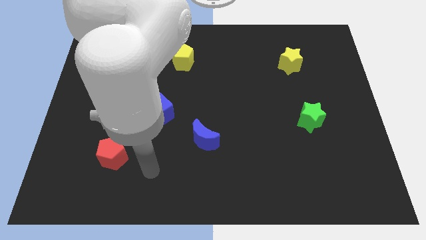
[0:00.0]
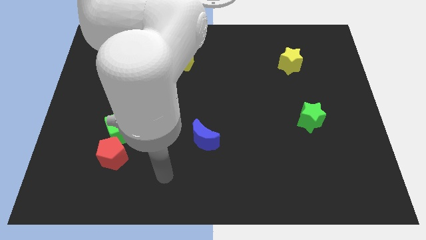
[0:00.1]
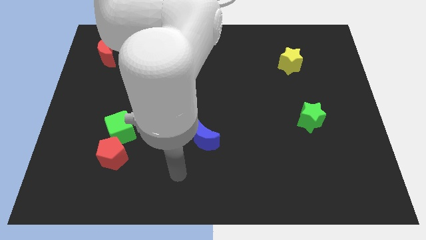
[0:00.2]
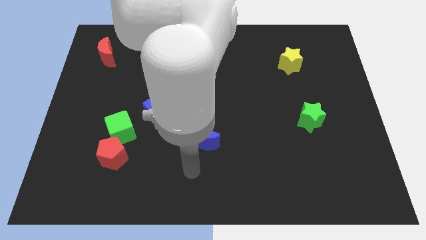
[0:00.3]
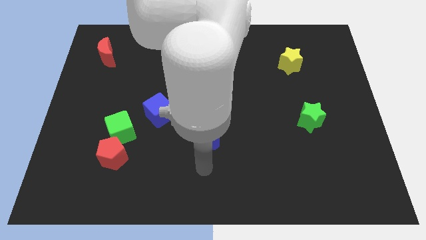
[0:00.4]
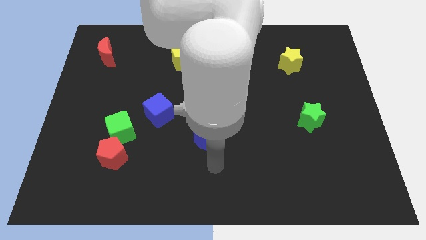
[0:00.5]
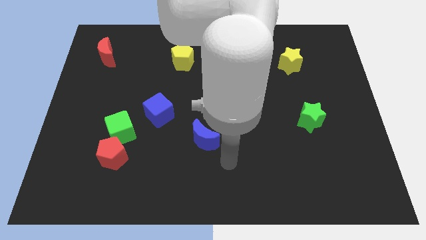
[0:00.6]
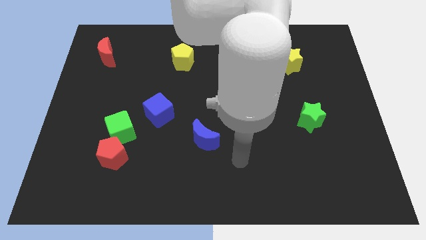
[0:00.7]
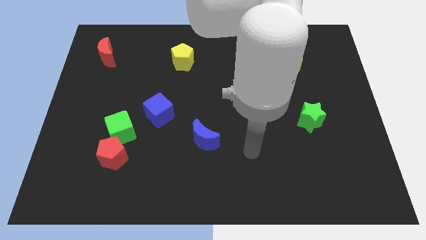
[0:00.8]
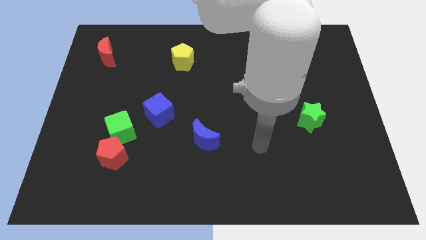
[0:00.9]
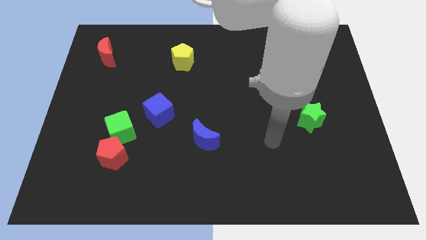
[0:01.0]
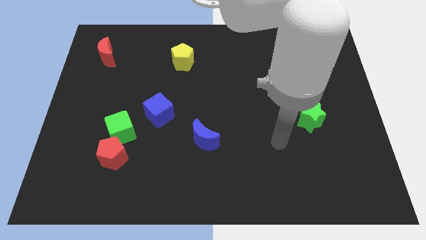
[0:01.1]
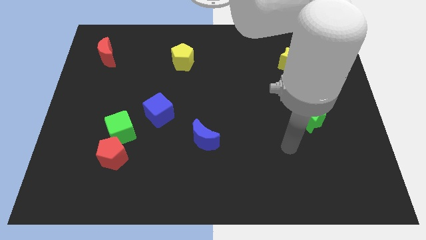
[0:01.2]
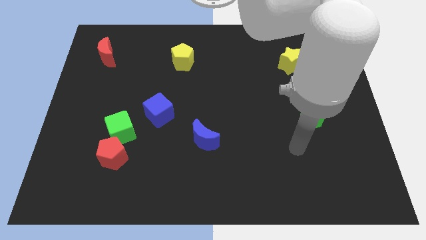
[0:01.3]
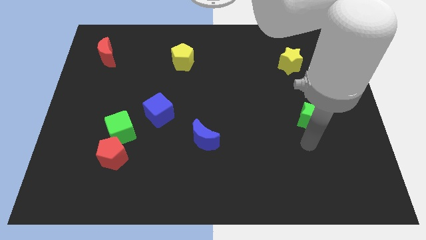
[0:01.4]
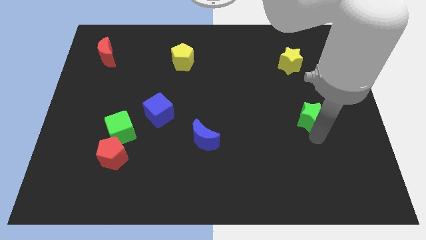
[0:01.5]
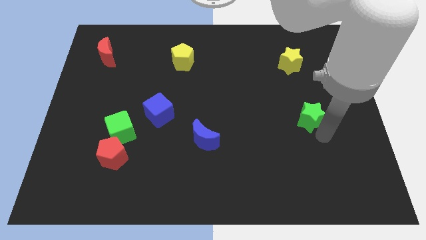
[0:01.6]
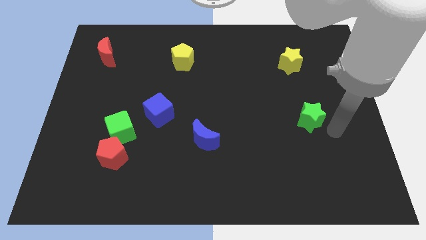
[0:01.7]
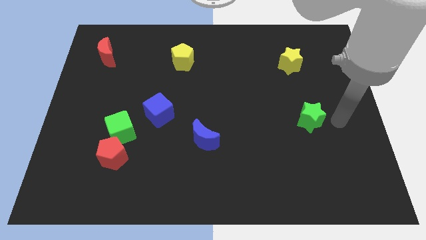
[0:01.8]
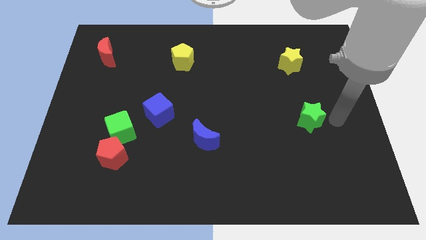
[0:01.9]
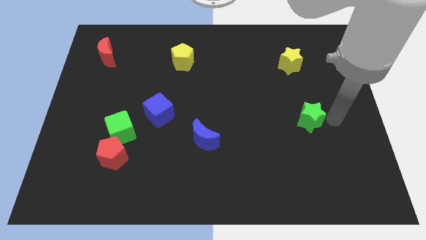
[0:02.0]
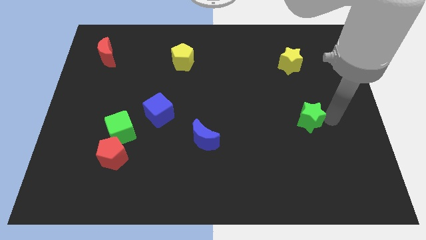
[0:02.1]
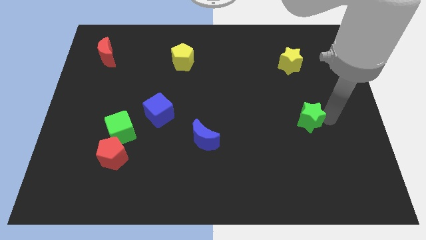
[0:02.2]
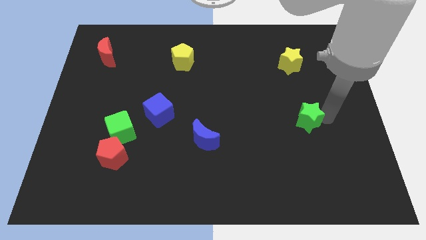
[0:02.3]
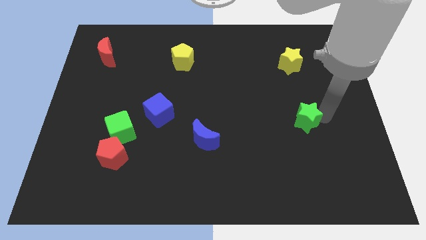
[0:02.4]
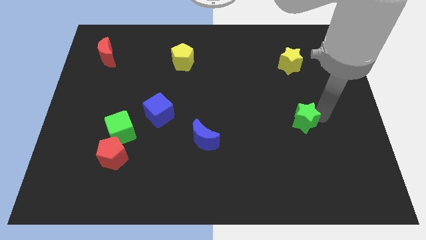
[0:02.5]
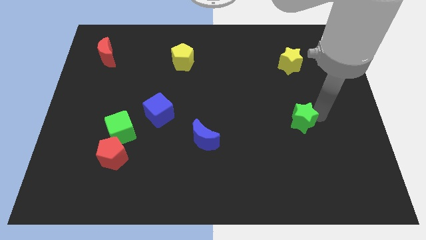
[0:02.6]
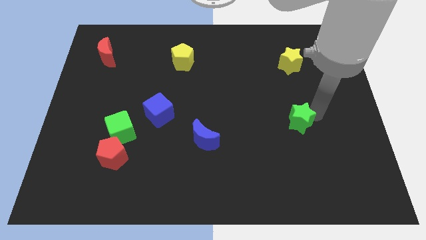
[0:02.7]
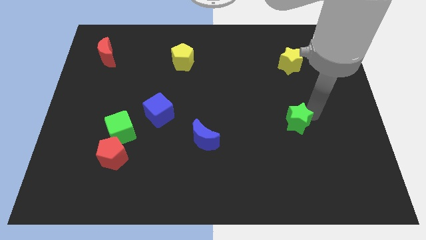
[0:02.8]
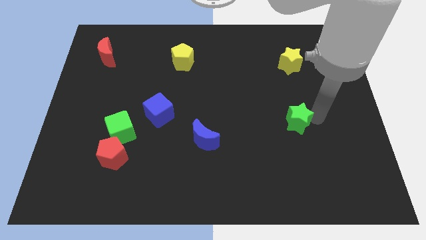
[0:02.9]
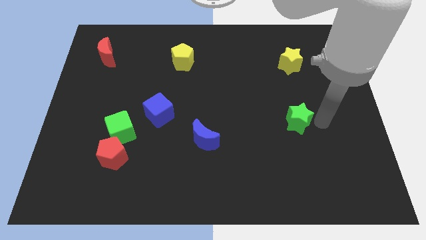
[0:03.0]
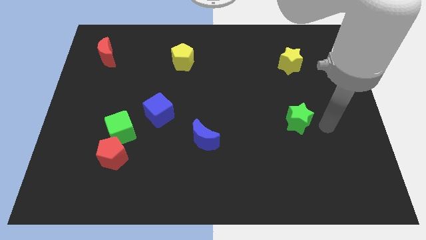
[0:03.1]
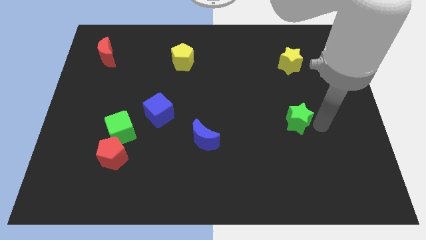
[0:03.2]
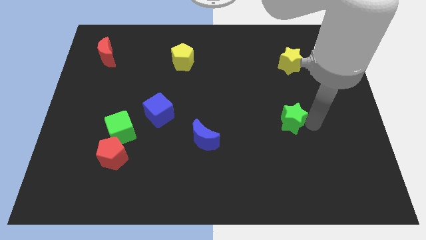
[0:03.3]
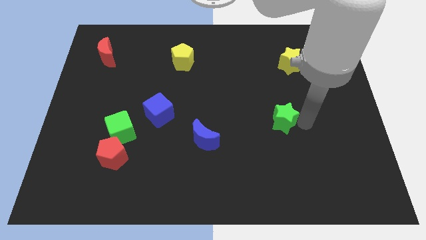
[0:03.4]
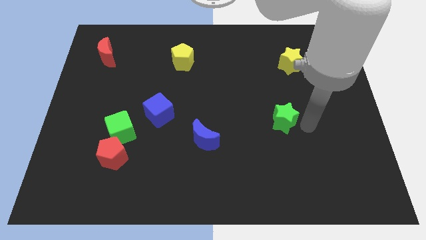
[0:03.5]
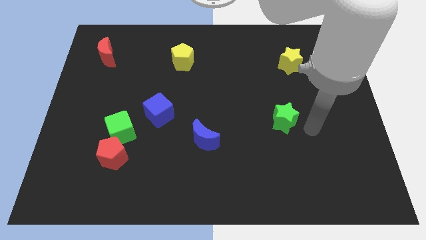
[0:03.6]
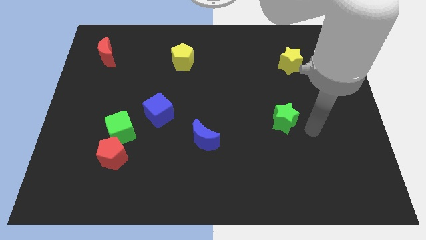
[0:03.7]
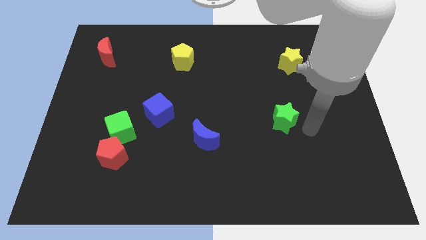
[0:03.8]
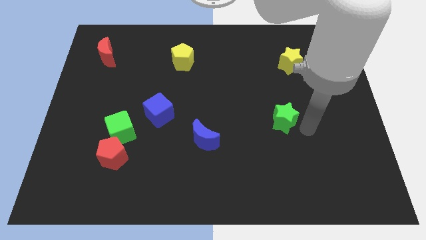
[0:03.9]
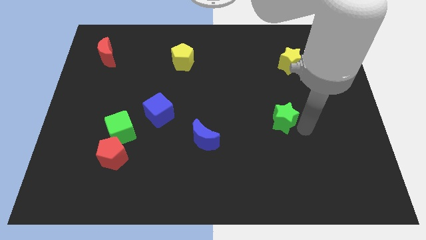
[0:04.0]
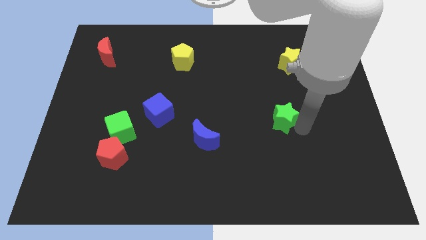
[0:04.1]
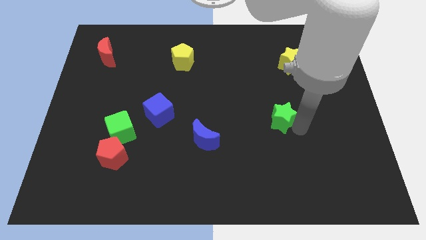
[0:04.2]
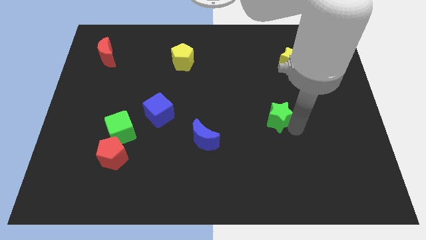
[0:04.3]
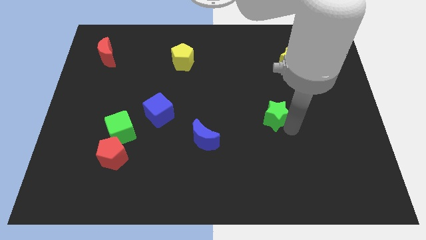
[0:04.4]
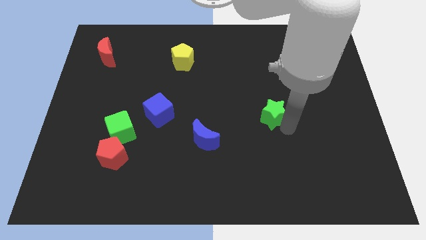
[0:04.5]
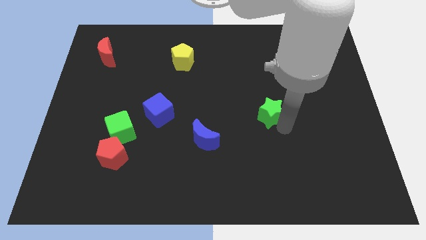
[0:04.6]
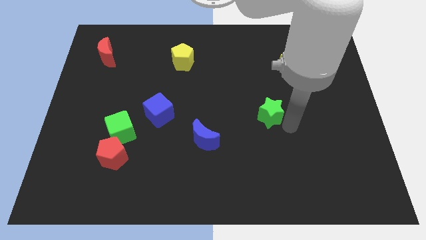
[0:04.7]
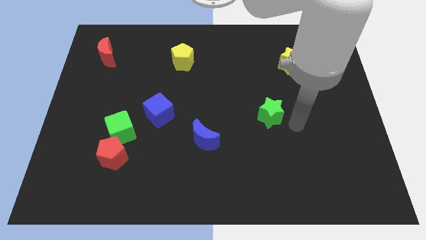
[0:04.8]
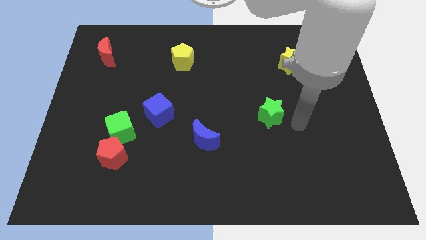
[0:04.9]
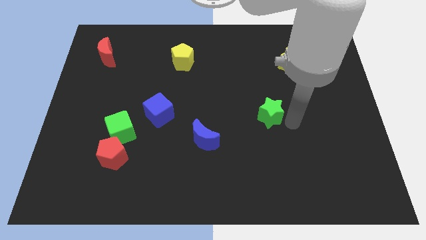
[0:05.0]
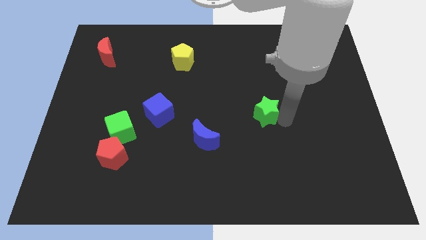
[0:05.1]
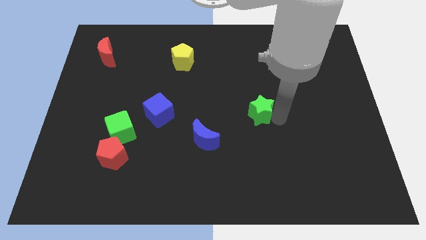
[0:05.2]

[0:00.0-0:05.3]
push the green star to the center
